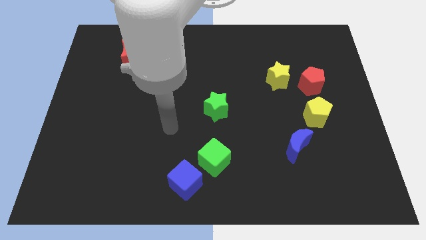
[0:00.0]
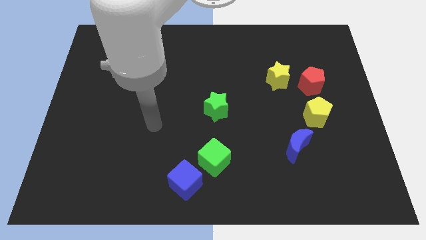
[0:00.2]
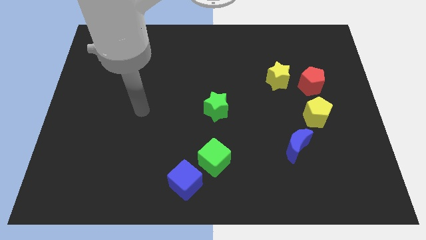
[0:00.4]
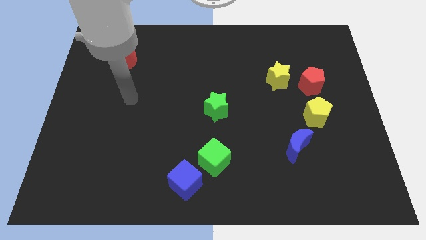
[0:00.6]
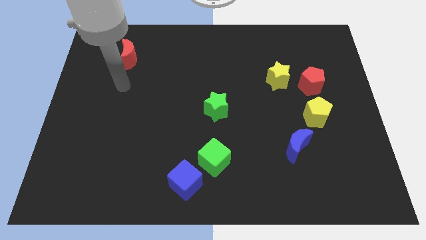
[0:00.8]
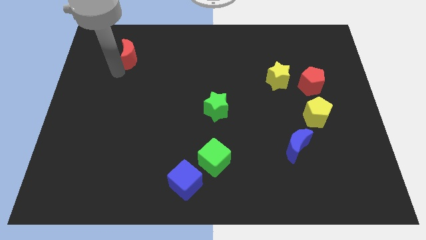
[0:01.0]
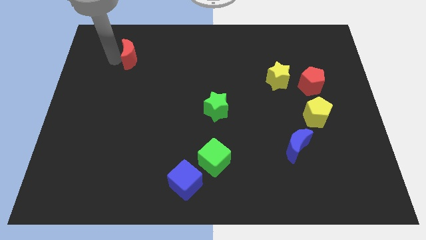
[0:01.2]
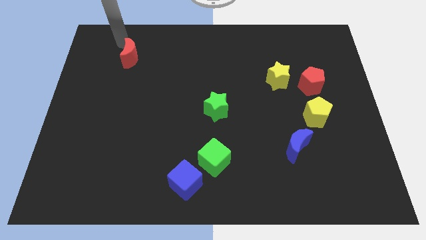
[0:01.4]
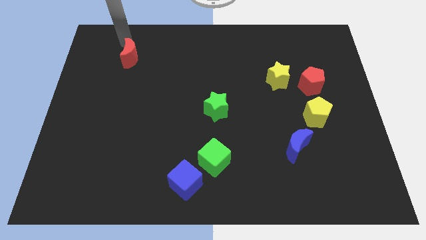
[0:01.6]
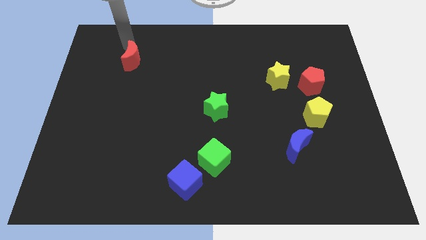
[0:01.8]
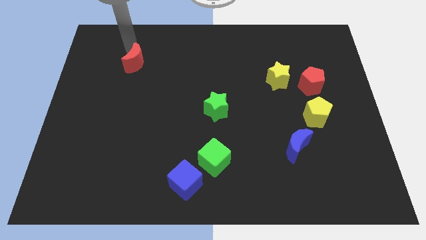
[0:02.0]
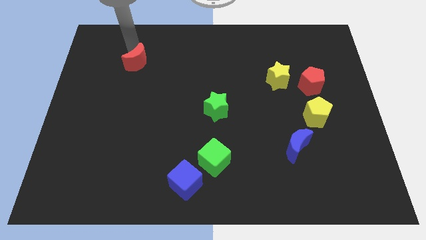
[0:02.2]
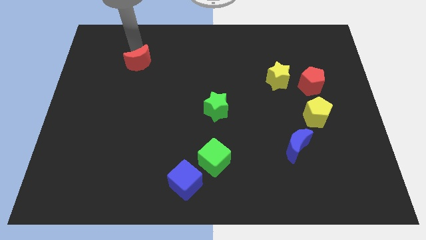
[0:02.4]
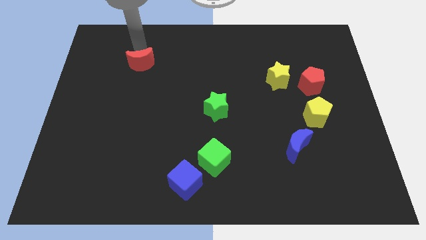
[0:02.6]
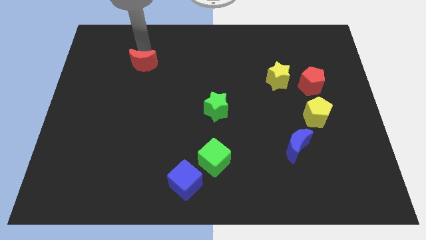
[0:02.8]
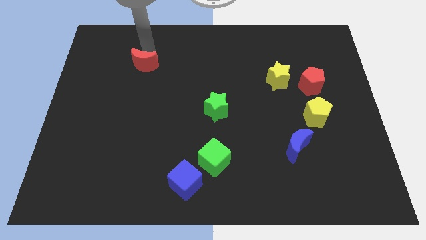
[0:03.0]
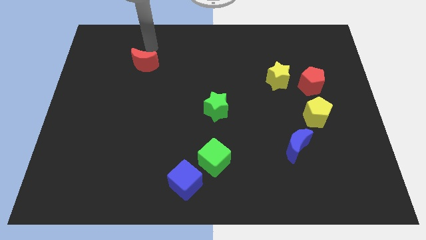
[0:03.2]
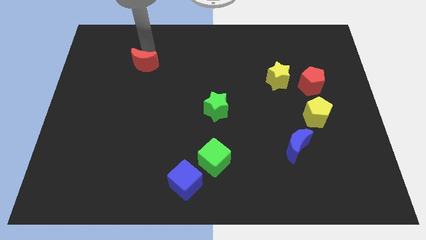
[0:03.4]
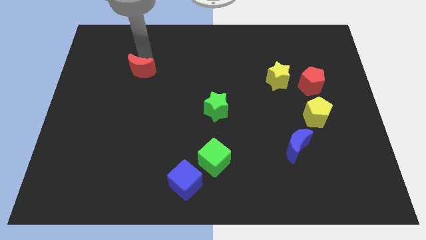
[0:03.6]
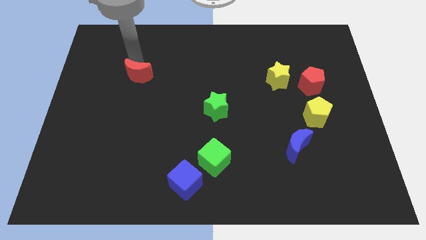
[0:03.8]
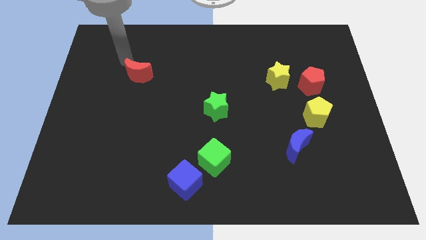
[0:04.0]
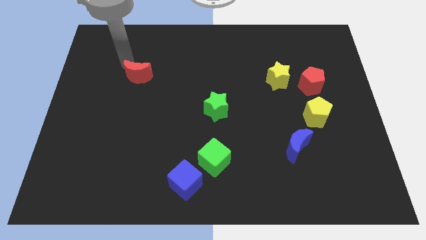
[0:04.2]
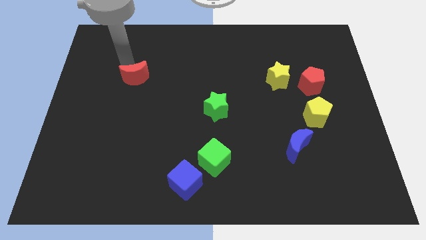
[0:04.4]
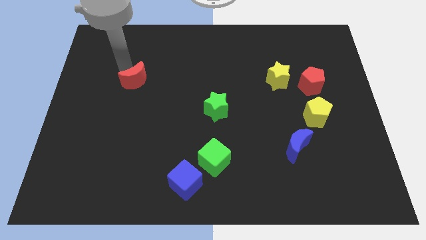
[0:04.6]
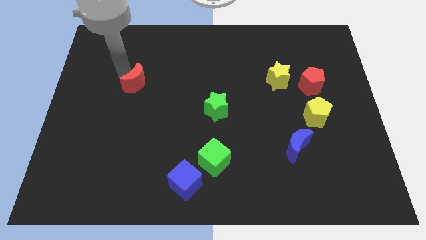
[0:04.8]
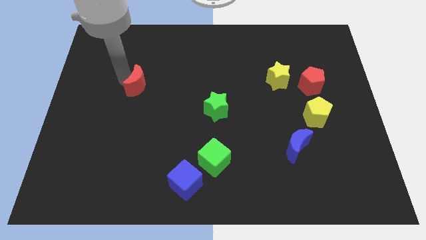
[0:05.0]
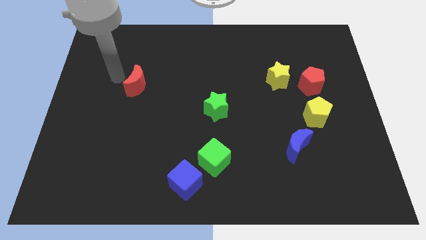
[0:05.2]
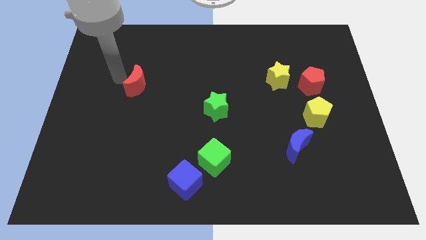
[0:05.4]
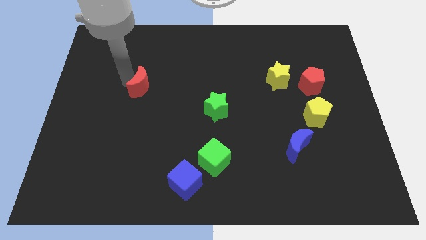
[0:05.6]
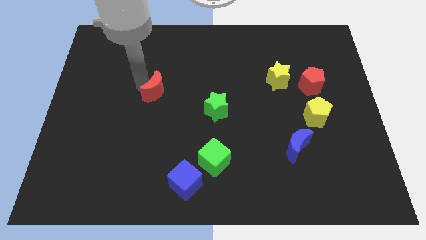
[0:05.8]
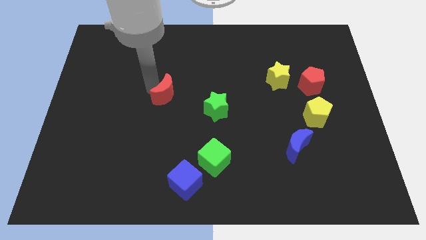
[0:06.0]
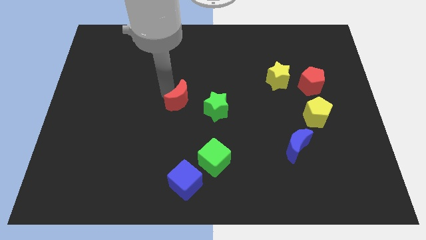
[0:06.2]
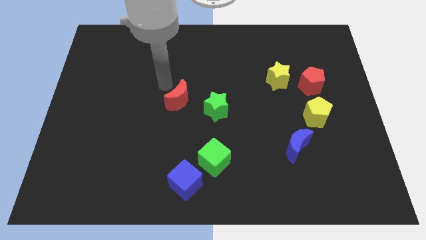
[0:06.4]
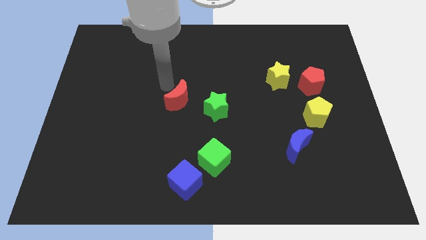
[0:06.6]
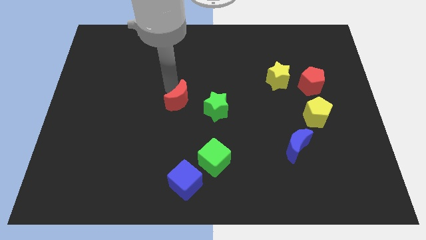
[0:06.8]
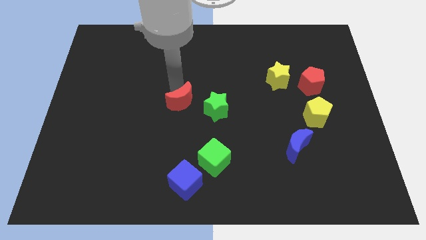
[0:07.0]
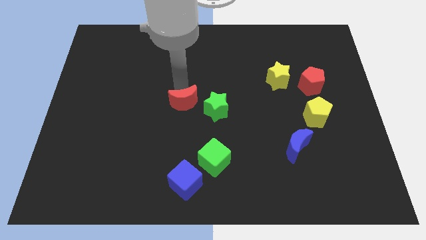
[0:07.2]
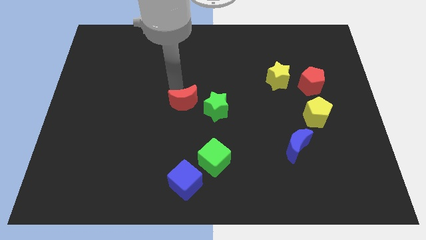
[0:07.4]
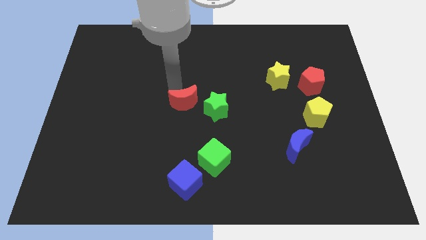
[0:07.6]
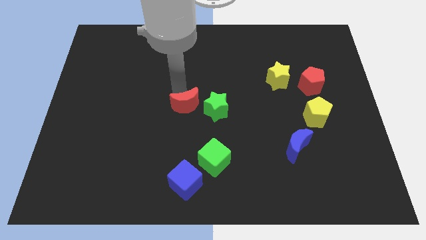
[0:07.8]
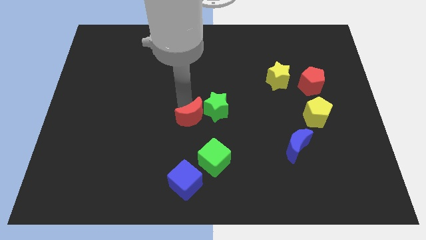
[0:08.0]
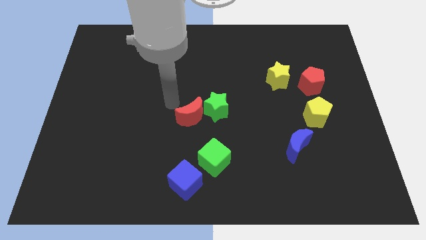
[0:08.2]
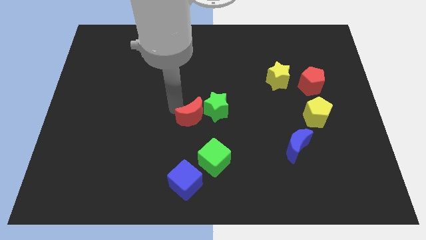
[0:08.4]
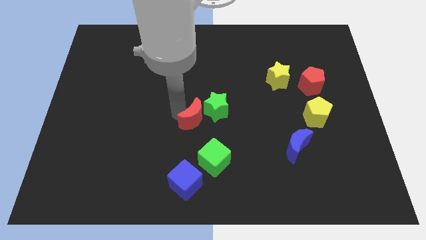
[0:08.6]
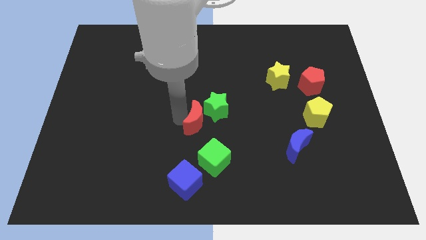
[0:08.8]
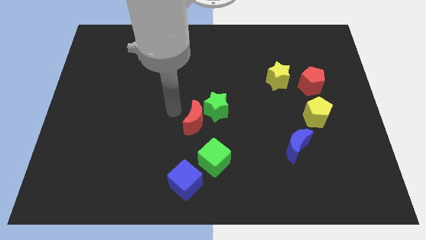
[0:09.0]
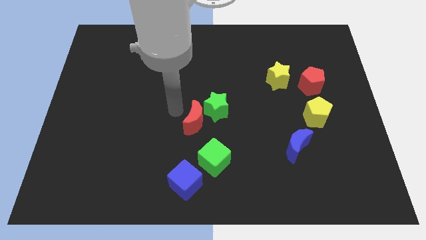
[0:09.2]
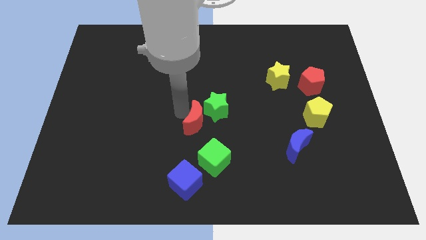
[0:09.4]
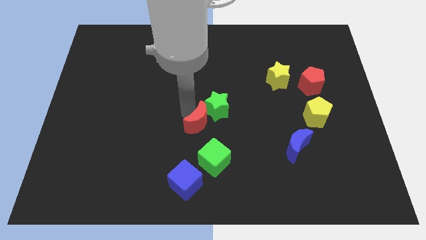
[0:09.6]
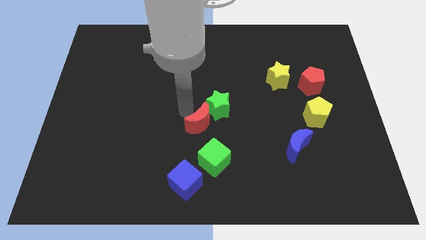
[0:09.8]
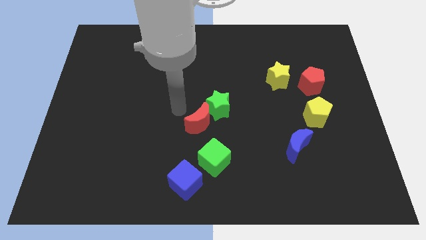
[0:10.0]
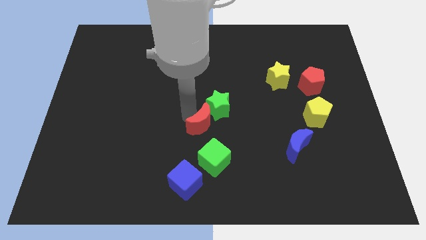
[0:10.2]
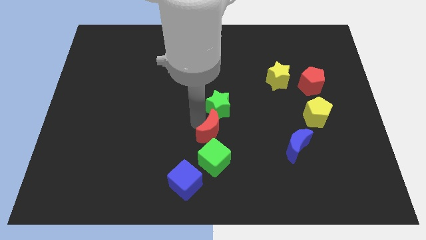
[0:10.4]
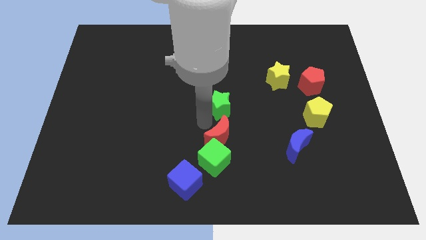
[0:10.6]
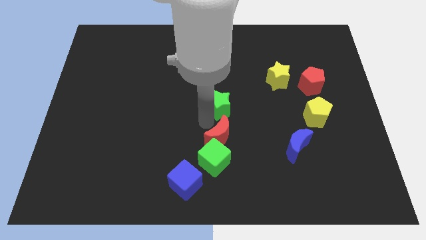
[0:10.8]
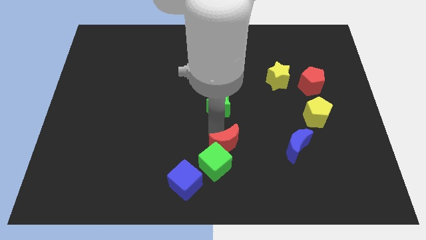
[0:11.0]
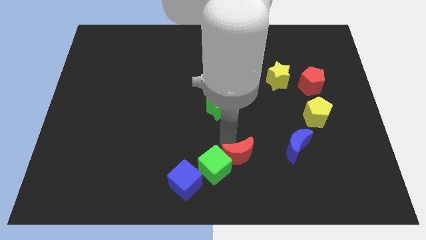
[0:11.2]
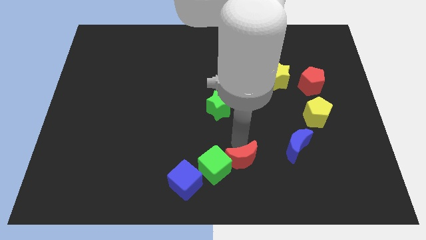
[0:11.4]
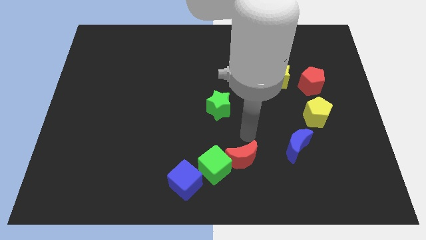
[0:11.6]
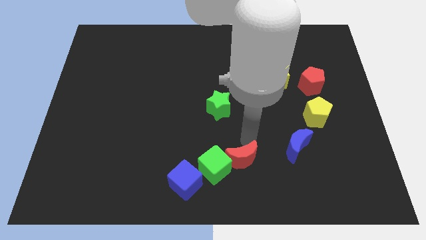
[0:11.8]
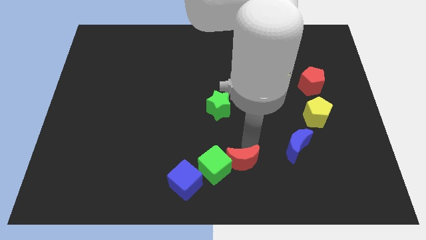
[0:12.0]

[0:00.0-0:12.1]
push the red moon to the right of the blue cube

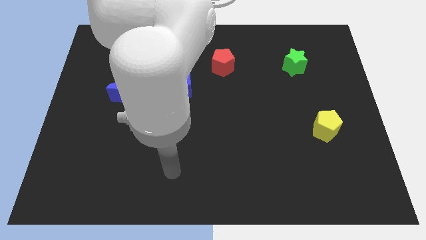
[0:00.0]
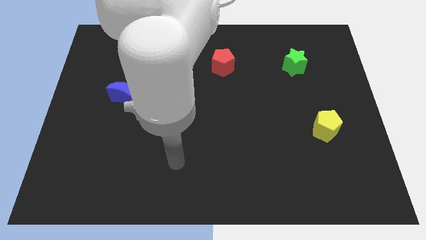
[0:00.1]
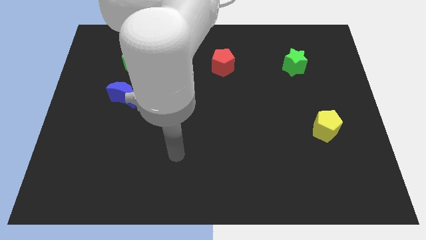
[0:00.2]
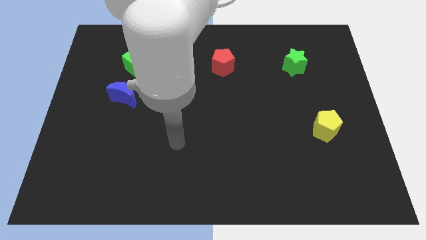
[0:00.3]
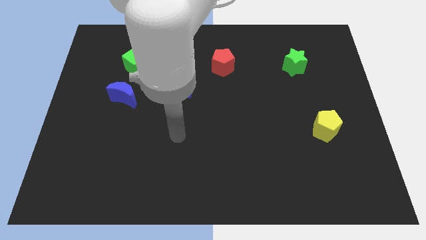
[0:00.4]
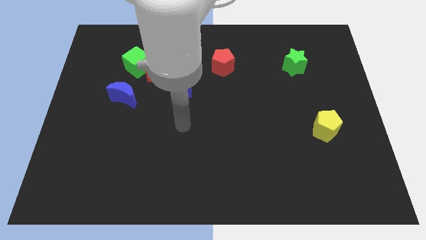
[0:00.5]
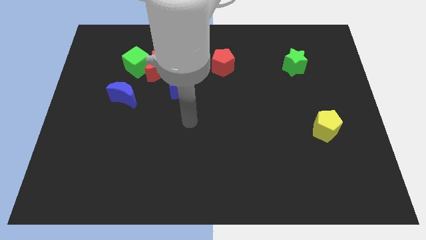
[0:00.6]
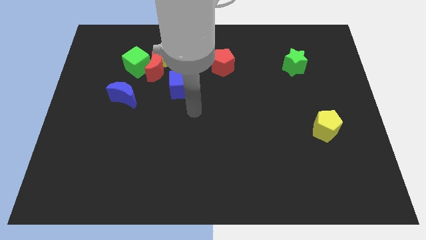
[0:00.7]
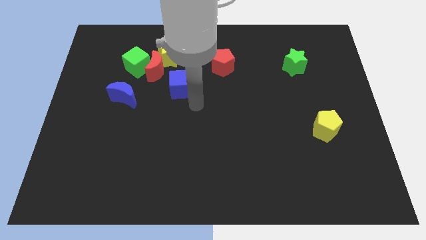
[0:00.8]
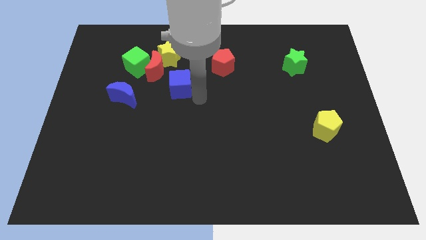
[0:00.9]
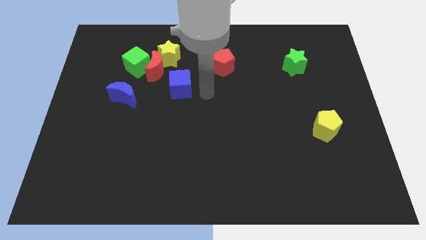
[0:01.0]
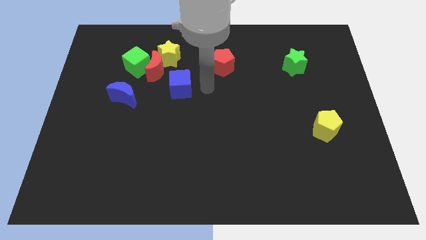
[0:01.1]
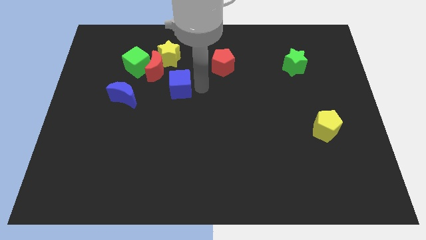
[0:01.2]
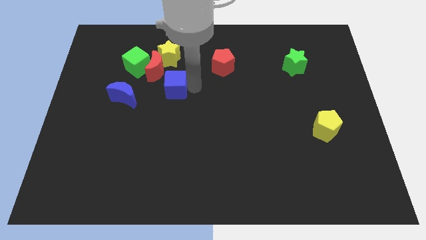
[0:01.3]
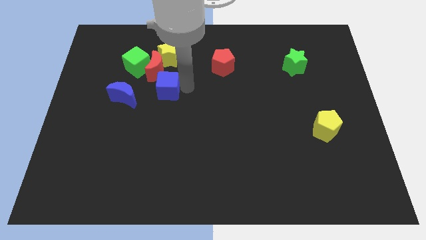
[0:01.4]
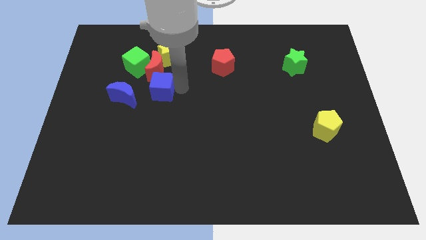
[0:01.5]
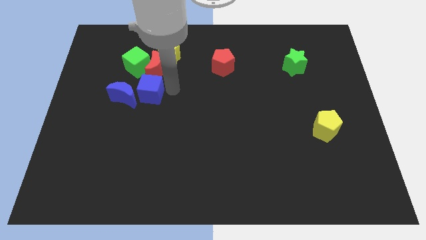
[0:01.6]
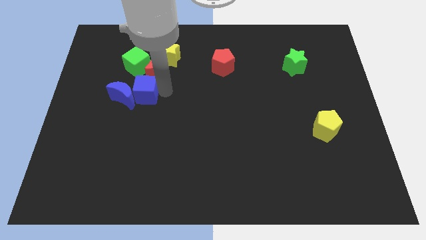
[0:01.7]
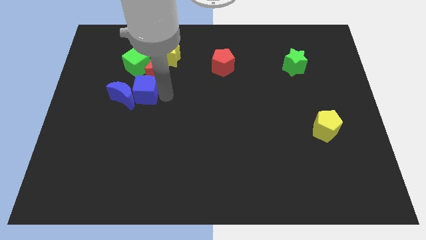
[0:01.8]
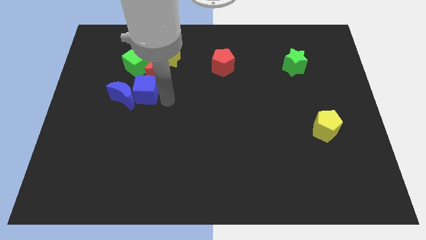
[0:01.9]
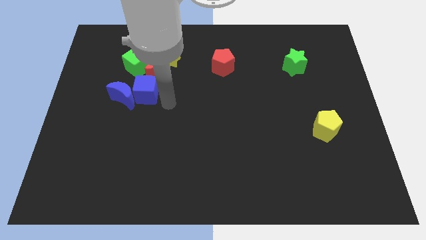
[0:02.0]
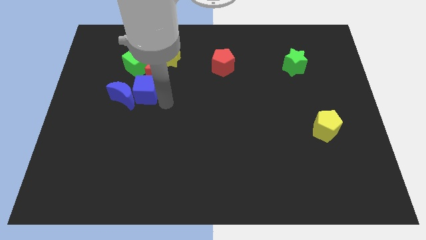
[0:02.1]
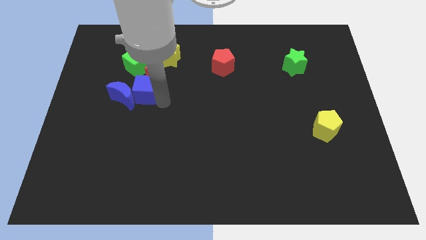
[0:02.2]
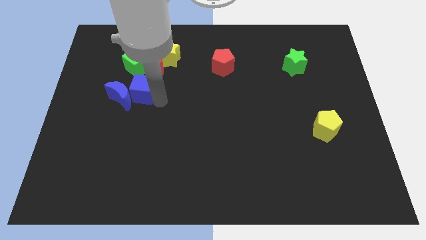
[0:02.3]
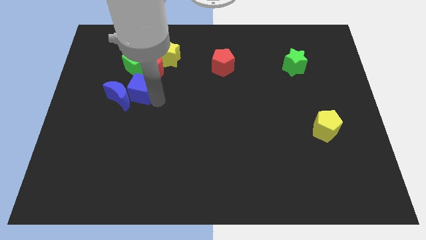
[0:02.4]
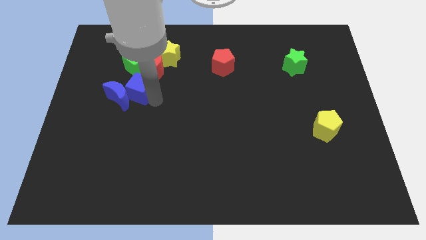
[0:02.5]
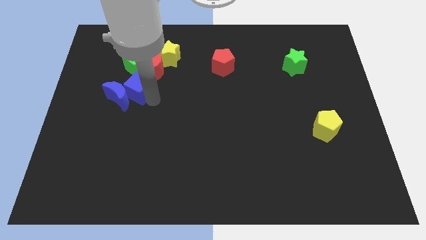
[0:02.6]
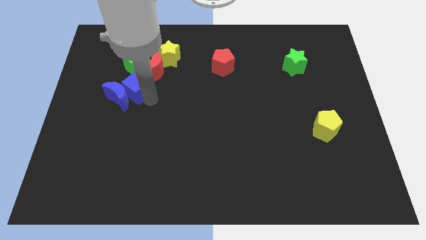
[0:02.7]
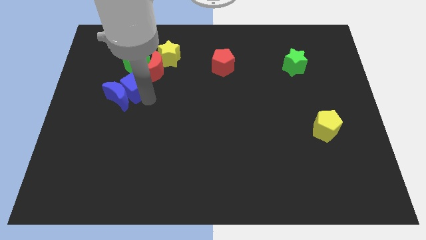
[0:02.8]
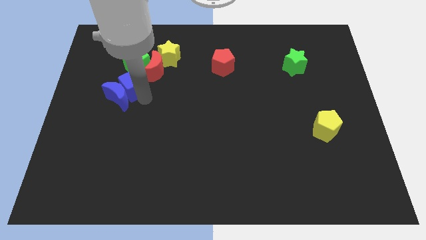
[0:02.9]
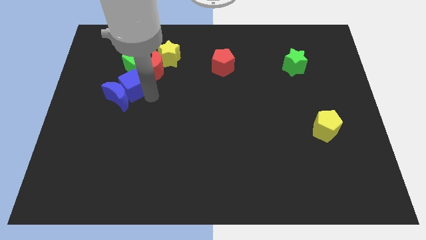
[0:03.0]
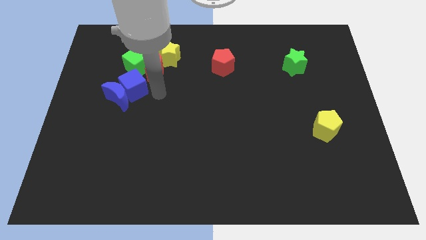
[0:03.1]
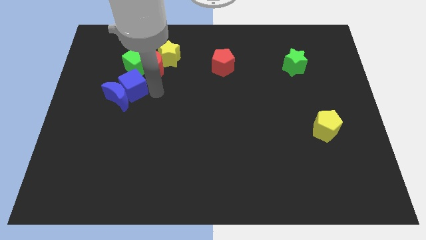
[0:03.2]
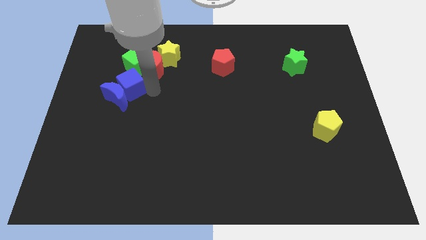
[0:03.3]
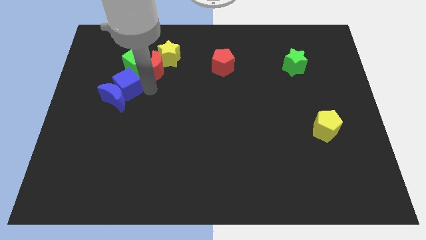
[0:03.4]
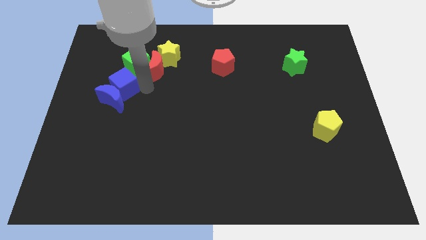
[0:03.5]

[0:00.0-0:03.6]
move the blue cube to the top left side of the blue moon
